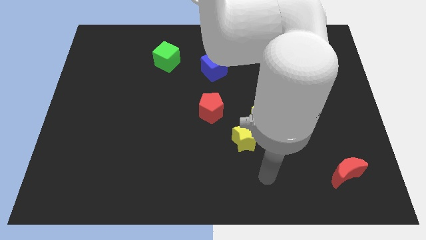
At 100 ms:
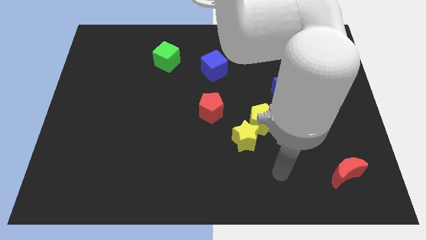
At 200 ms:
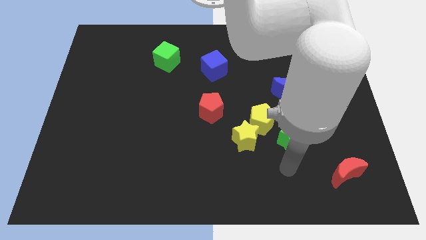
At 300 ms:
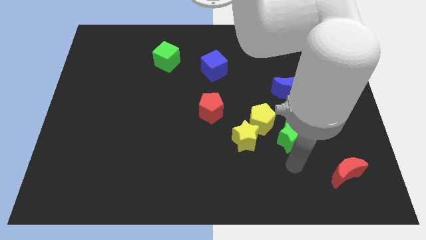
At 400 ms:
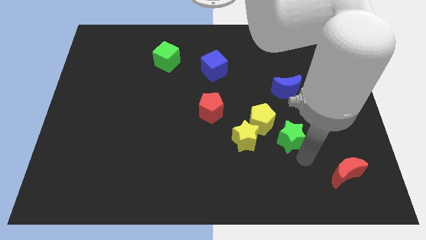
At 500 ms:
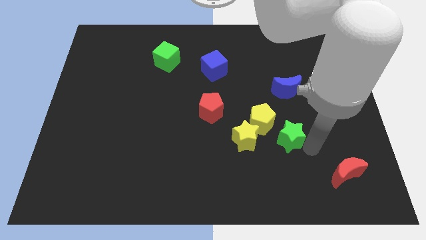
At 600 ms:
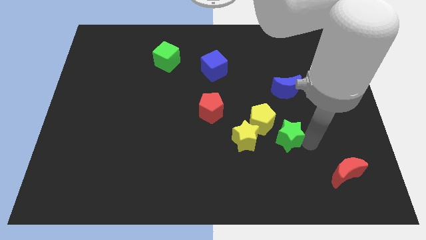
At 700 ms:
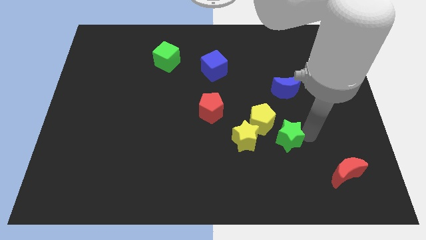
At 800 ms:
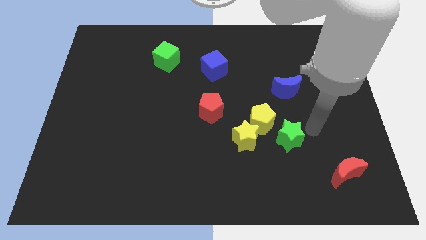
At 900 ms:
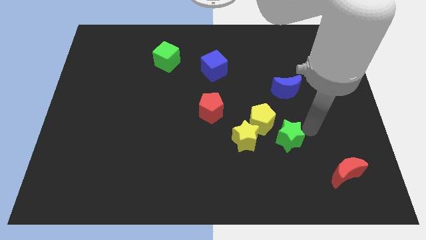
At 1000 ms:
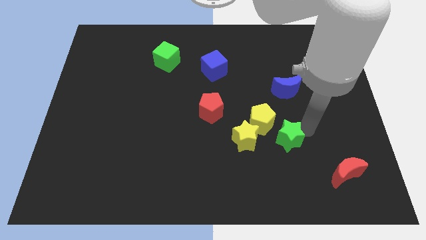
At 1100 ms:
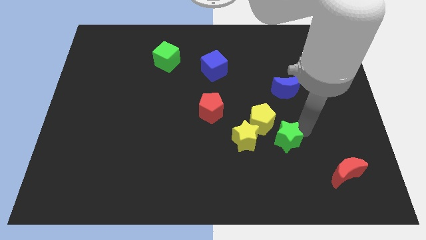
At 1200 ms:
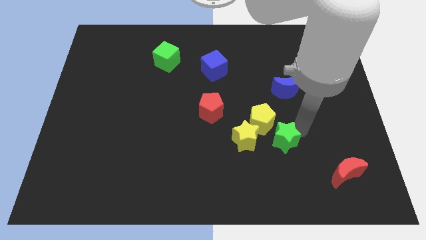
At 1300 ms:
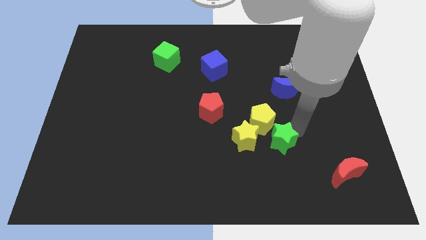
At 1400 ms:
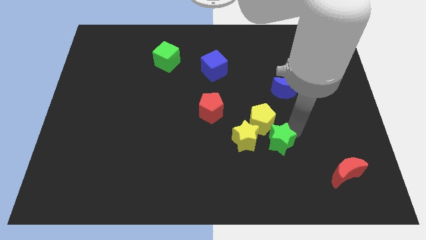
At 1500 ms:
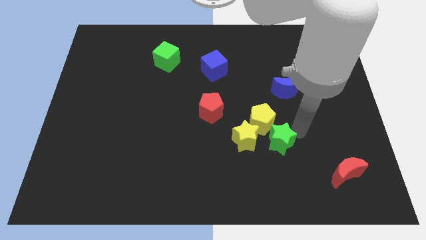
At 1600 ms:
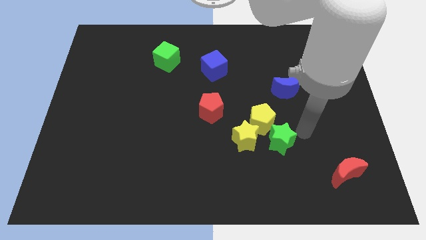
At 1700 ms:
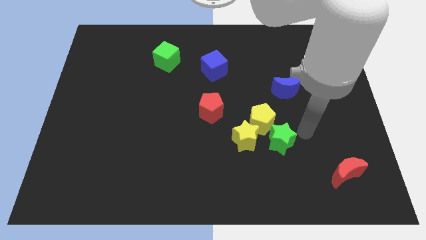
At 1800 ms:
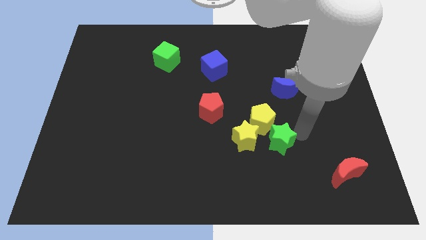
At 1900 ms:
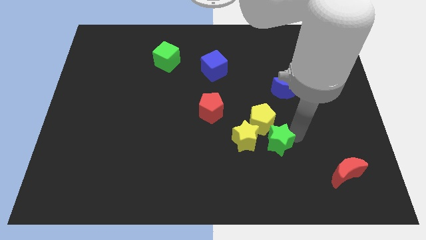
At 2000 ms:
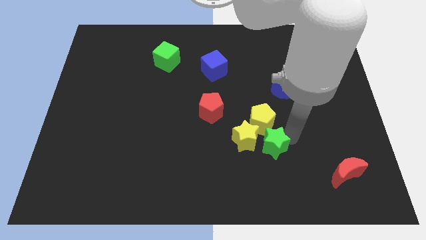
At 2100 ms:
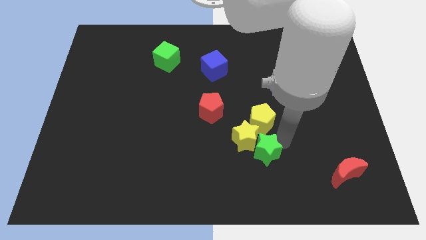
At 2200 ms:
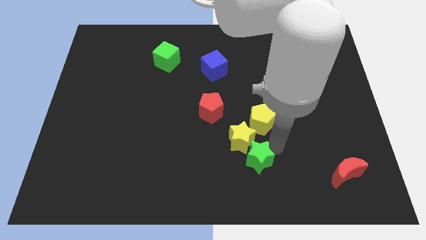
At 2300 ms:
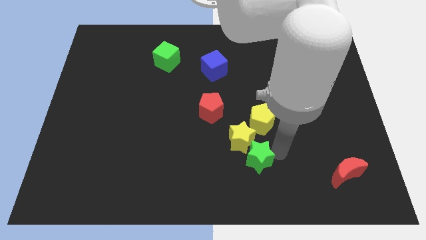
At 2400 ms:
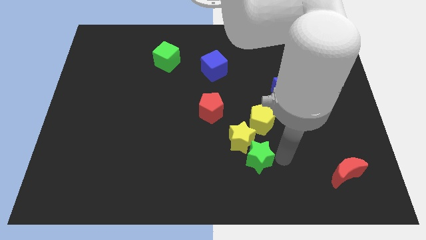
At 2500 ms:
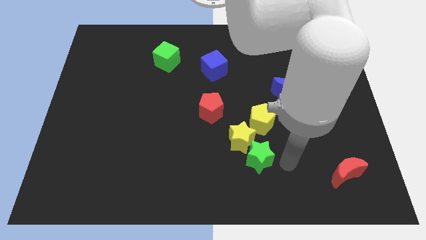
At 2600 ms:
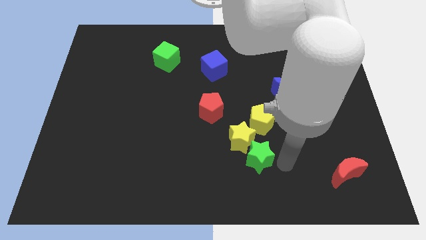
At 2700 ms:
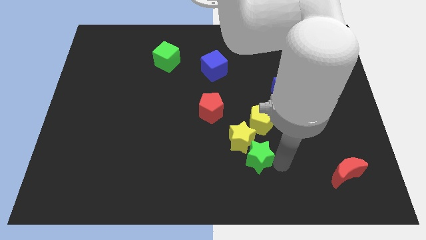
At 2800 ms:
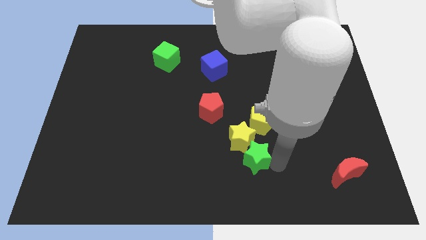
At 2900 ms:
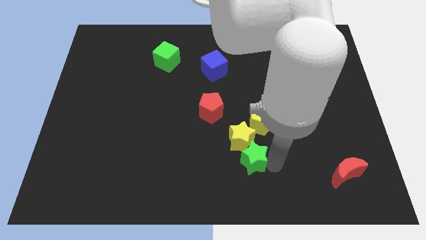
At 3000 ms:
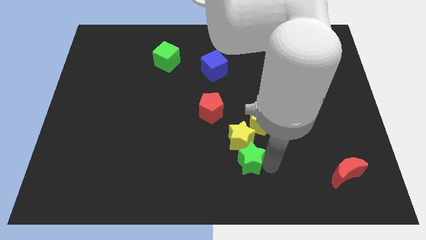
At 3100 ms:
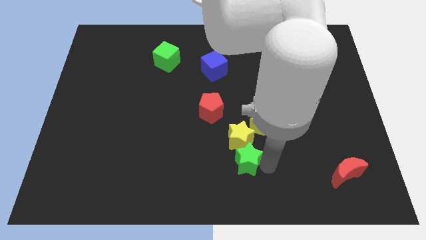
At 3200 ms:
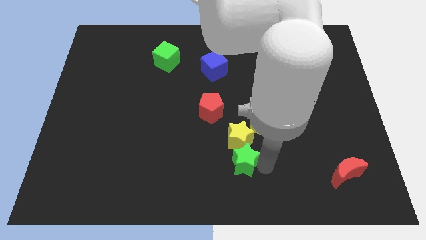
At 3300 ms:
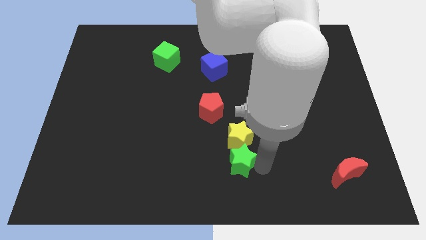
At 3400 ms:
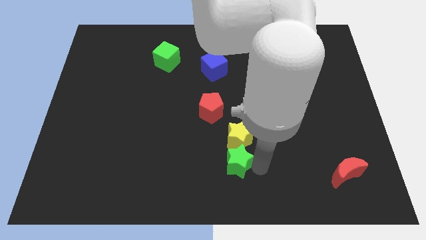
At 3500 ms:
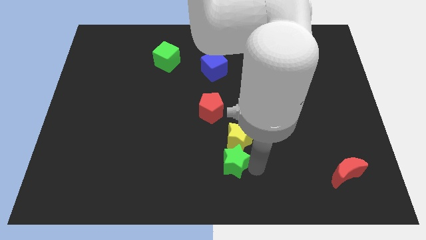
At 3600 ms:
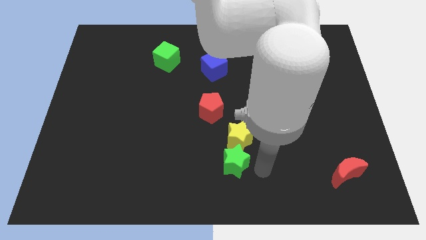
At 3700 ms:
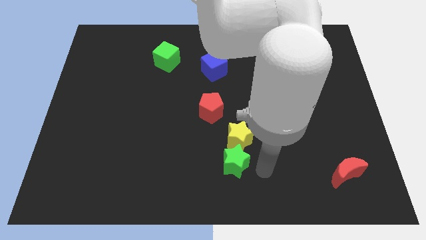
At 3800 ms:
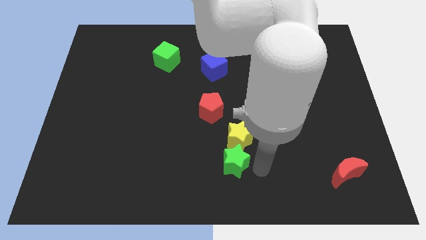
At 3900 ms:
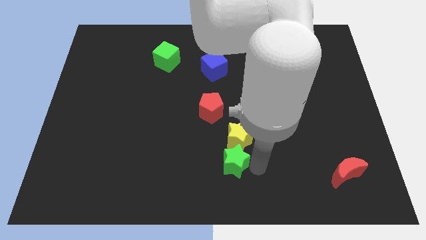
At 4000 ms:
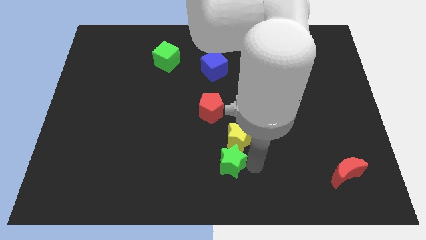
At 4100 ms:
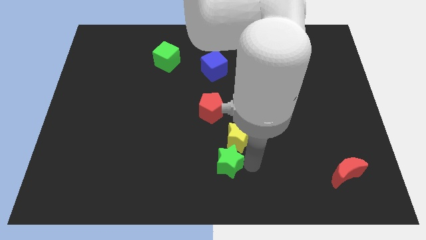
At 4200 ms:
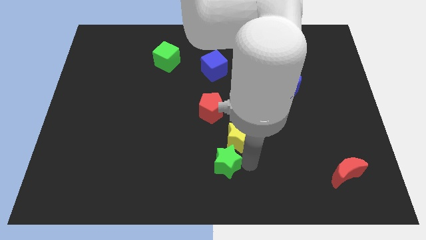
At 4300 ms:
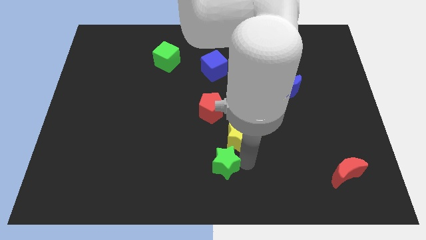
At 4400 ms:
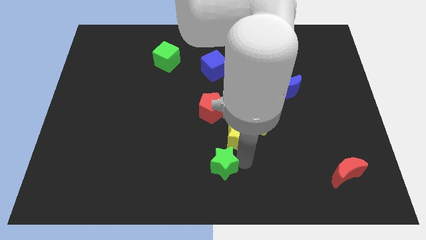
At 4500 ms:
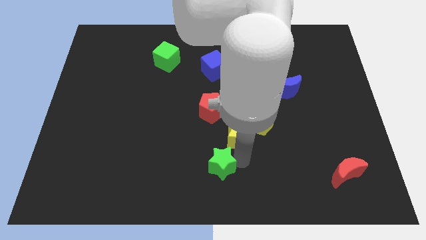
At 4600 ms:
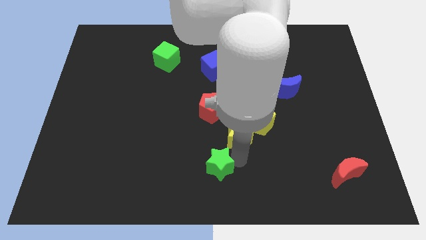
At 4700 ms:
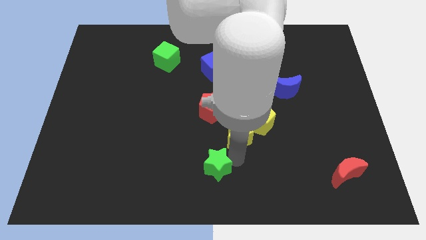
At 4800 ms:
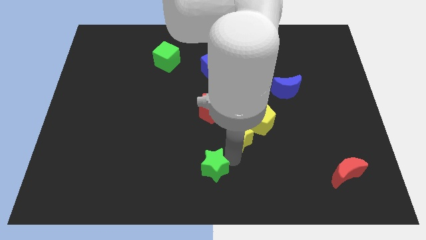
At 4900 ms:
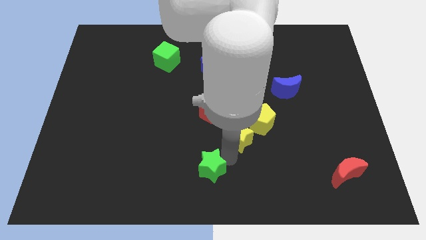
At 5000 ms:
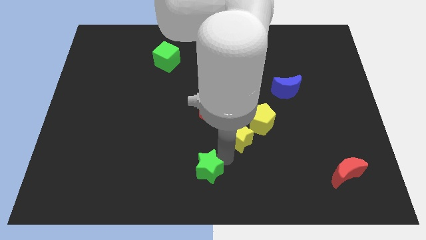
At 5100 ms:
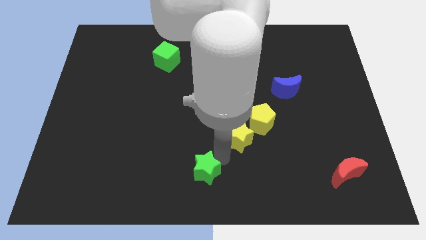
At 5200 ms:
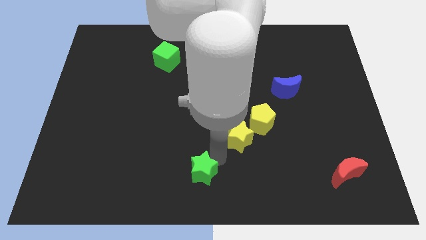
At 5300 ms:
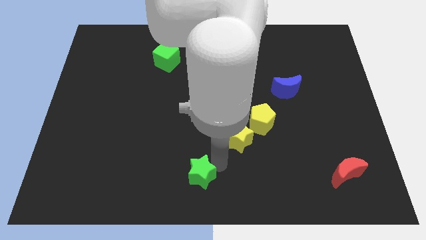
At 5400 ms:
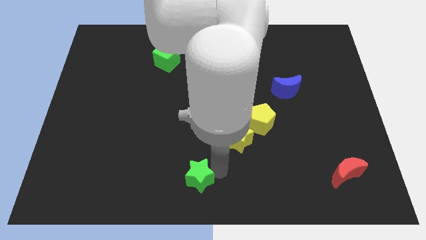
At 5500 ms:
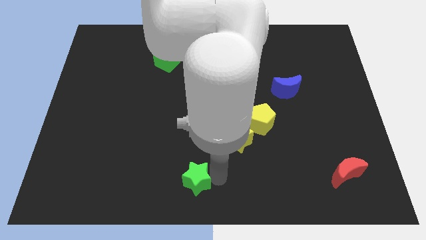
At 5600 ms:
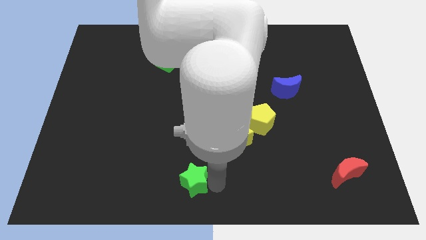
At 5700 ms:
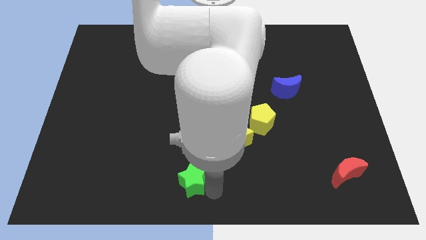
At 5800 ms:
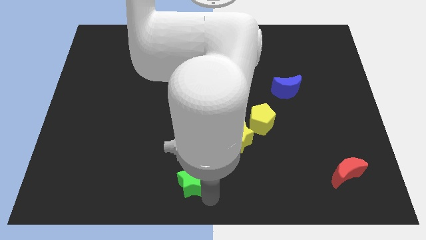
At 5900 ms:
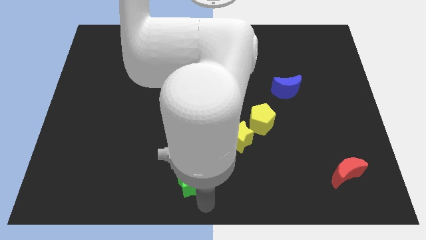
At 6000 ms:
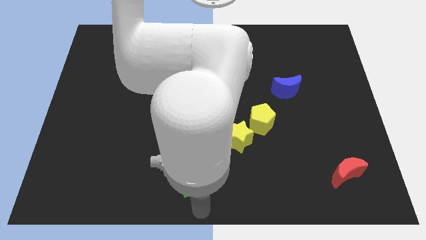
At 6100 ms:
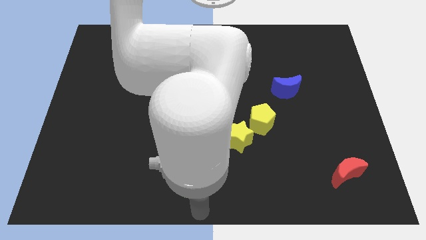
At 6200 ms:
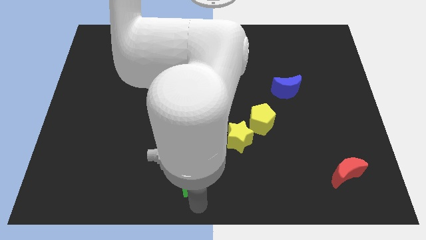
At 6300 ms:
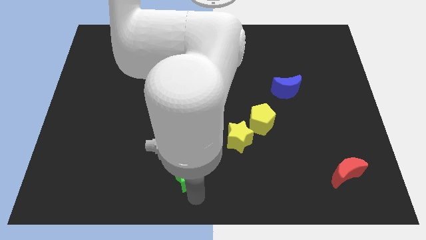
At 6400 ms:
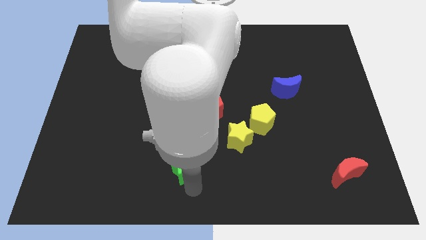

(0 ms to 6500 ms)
push the green star to the left

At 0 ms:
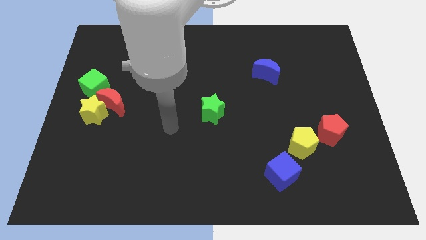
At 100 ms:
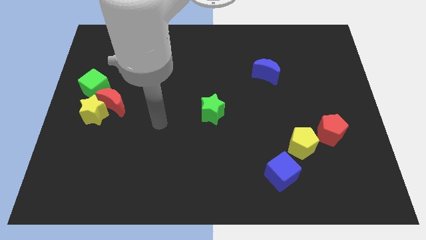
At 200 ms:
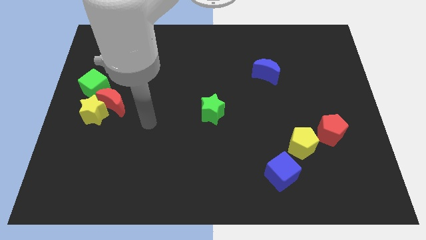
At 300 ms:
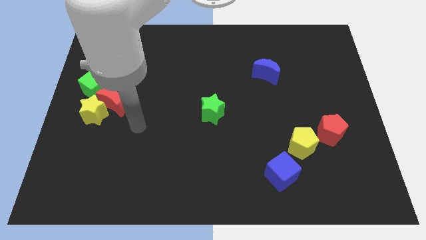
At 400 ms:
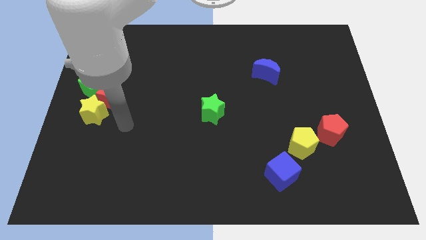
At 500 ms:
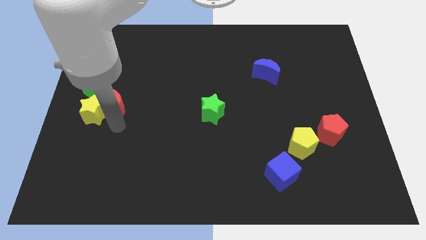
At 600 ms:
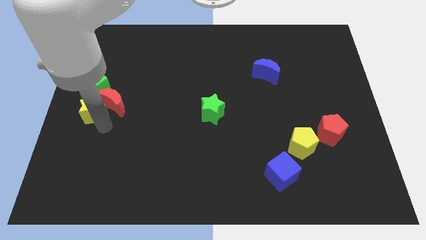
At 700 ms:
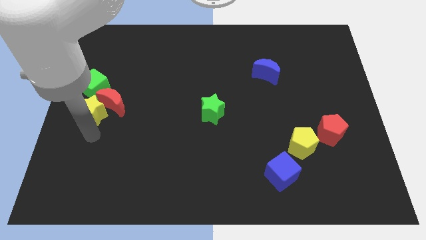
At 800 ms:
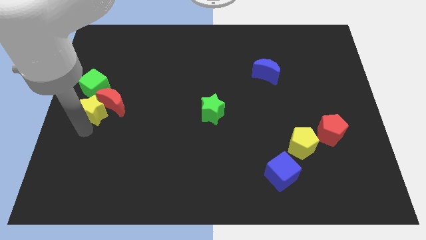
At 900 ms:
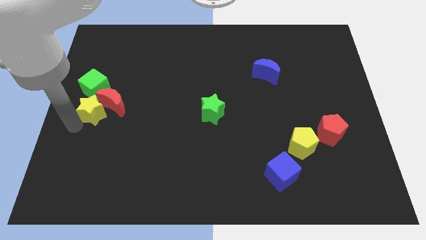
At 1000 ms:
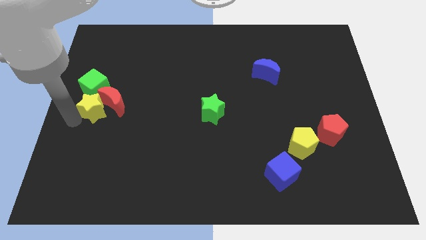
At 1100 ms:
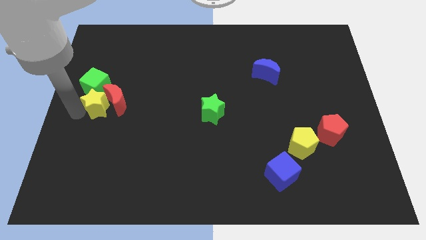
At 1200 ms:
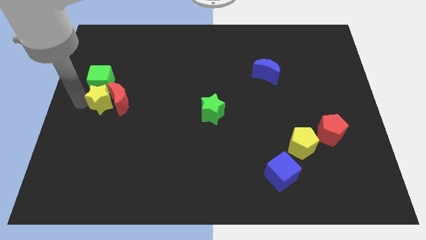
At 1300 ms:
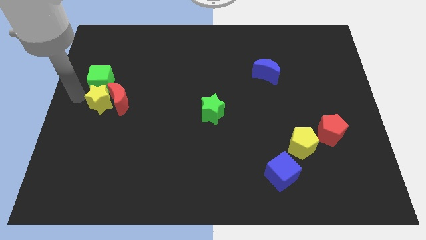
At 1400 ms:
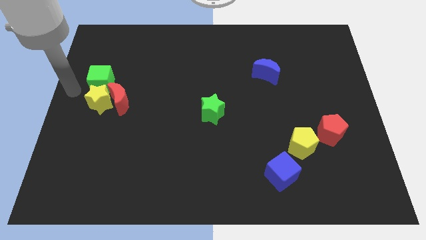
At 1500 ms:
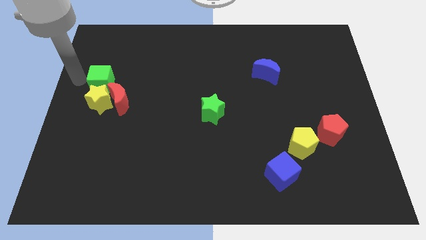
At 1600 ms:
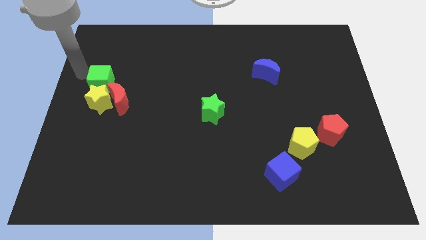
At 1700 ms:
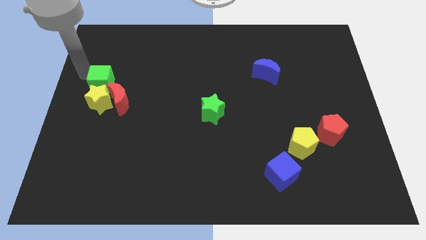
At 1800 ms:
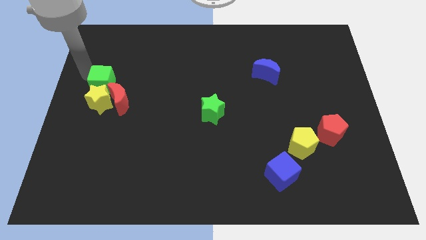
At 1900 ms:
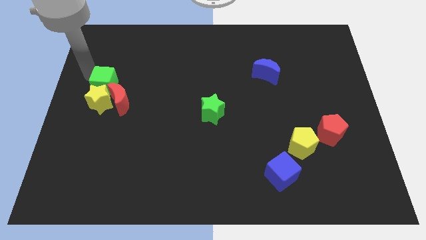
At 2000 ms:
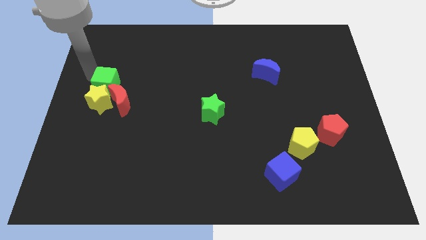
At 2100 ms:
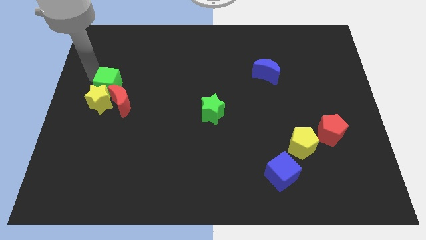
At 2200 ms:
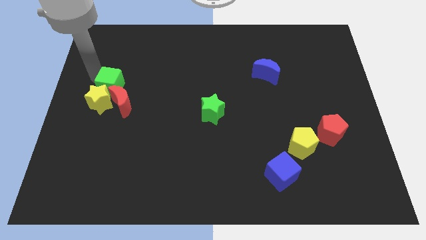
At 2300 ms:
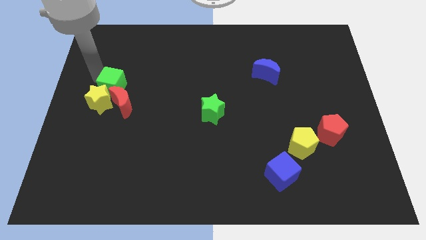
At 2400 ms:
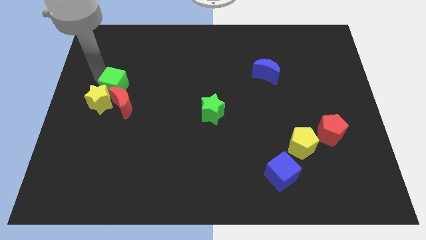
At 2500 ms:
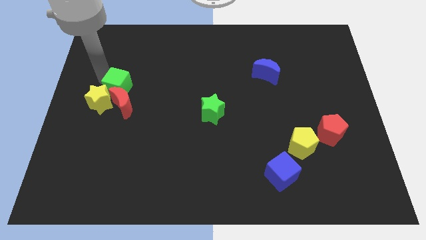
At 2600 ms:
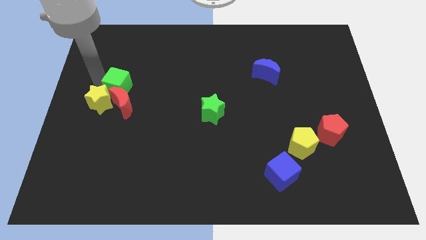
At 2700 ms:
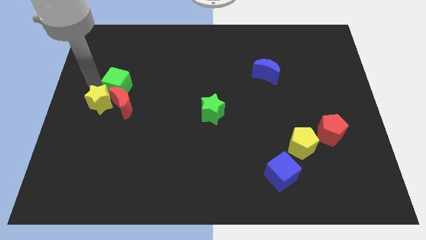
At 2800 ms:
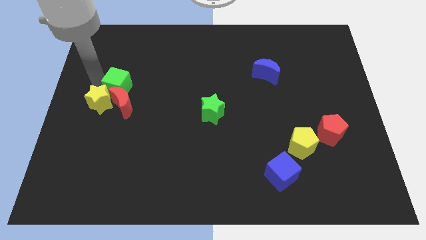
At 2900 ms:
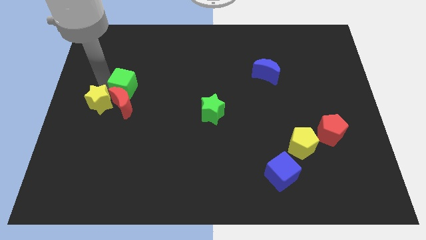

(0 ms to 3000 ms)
slightly move the green cube right
